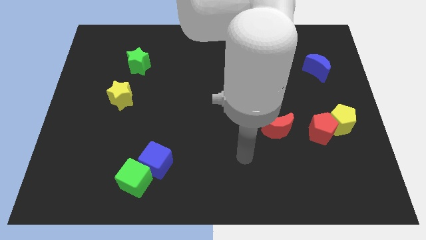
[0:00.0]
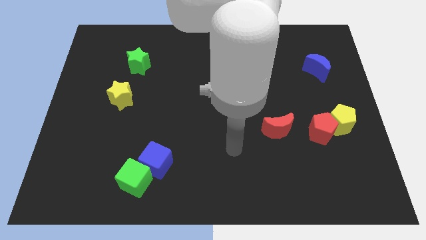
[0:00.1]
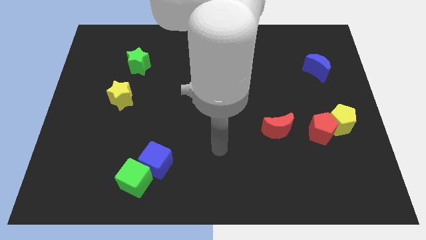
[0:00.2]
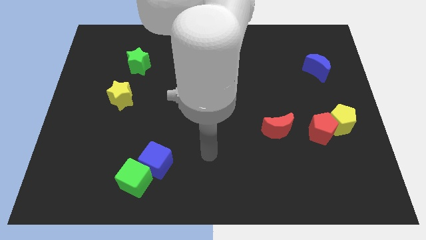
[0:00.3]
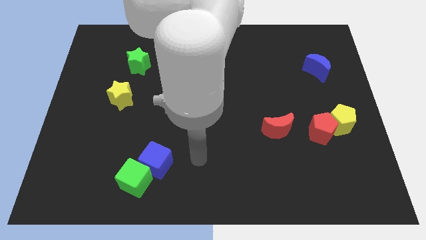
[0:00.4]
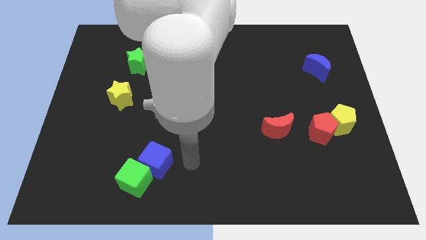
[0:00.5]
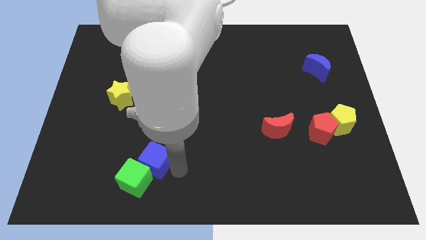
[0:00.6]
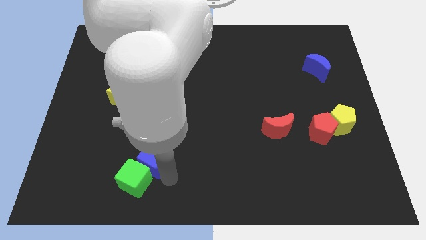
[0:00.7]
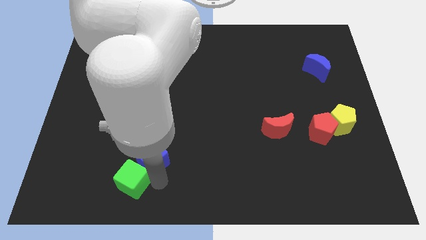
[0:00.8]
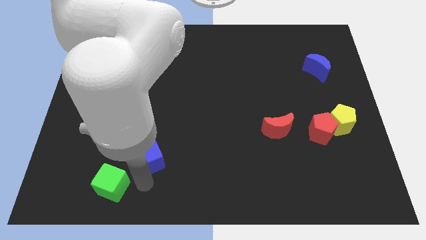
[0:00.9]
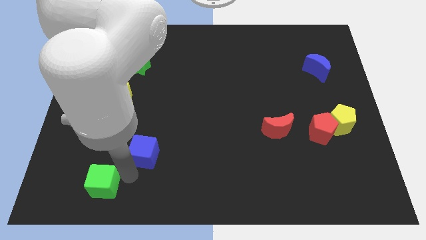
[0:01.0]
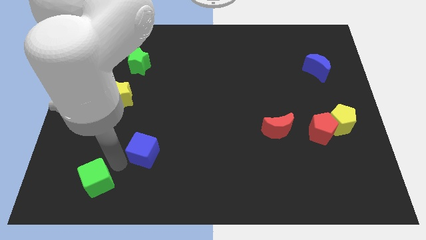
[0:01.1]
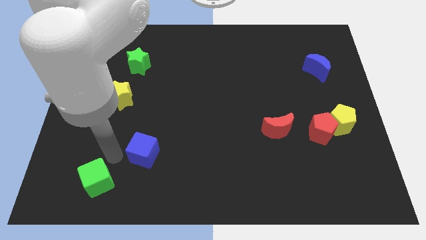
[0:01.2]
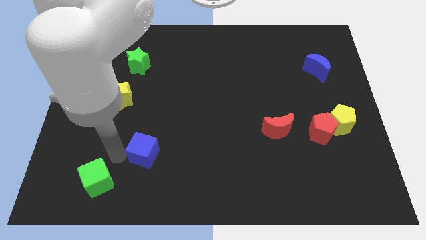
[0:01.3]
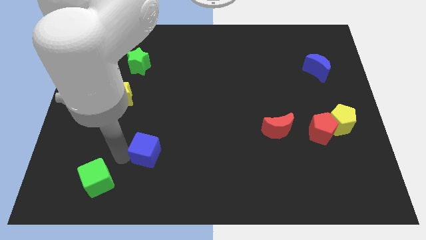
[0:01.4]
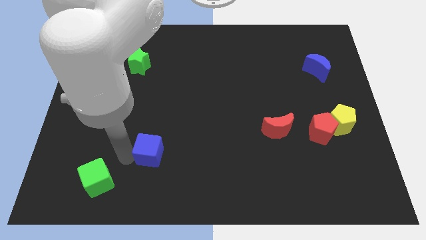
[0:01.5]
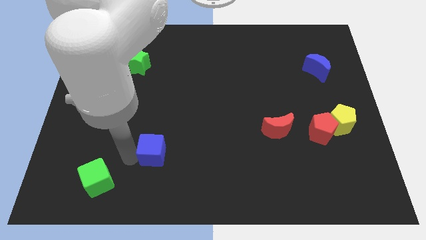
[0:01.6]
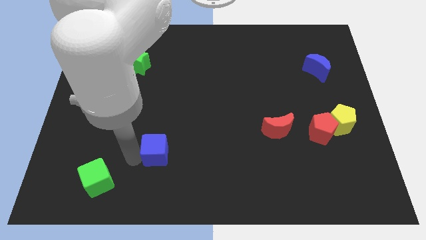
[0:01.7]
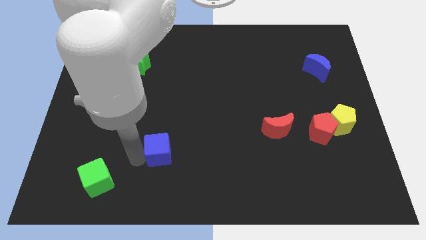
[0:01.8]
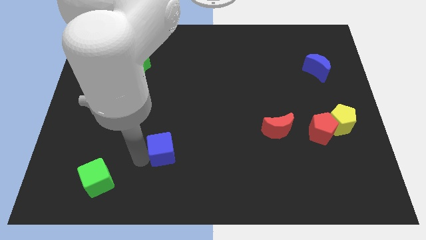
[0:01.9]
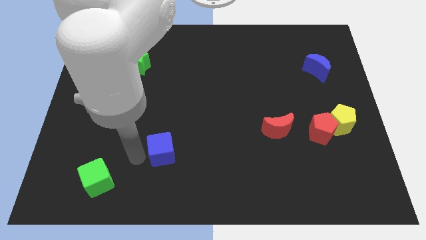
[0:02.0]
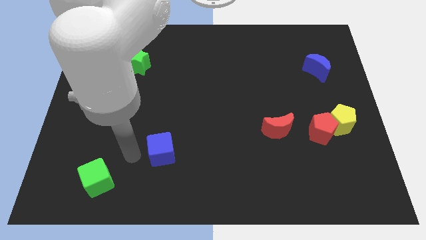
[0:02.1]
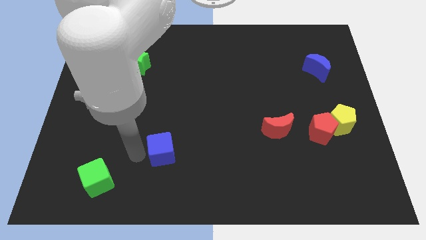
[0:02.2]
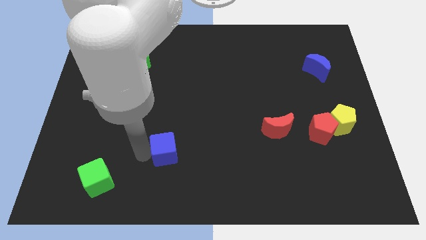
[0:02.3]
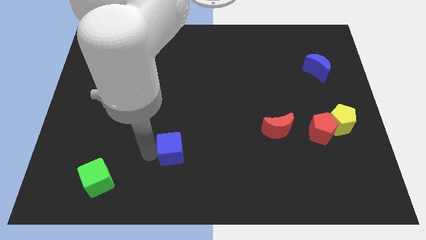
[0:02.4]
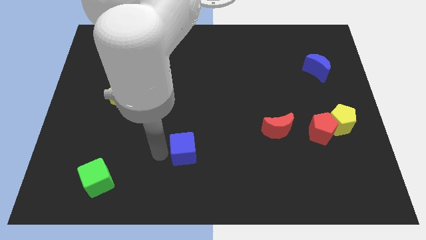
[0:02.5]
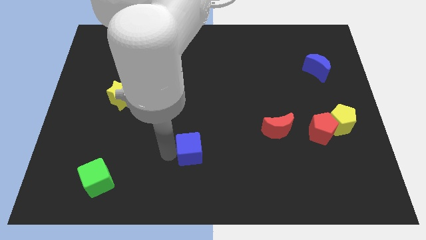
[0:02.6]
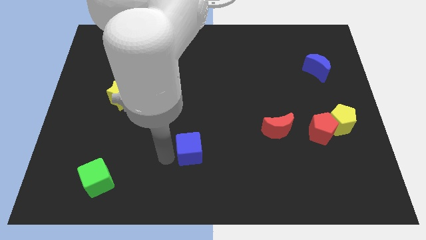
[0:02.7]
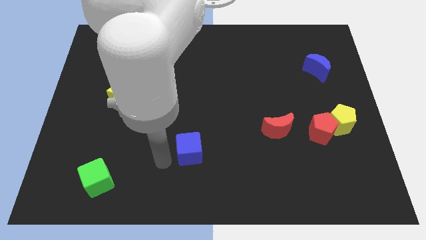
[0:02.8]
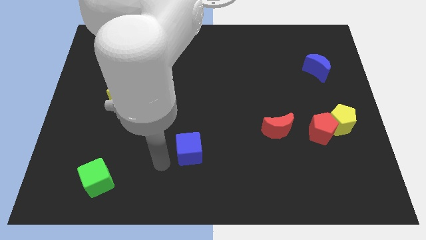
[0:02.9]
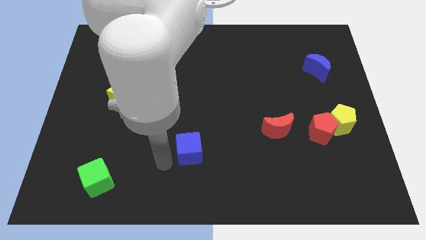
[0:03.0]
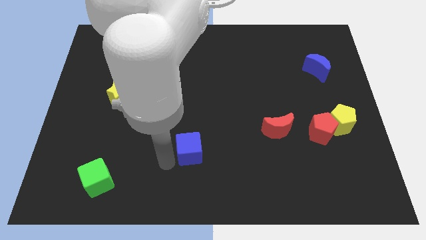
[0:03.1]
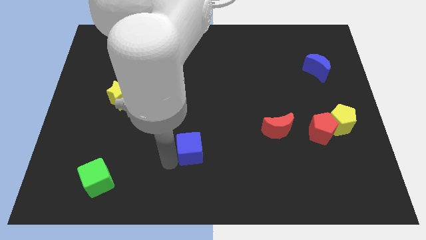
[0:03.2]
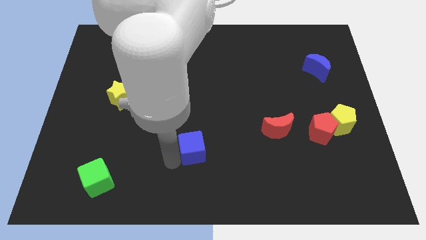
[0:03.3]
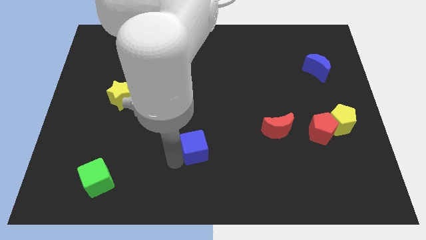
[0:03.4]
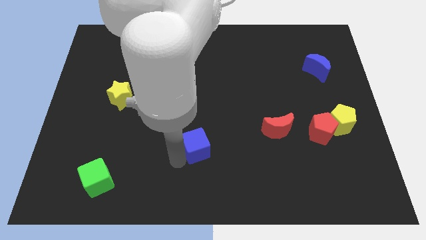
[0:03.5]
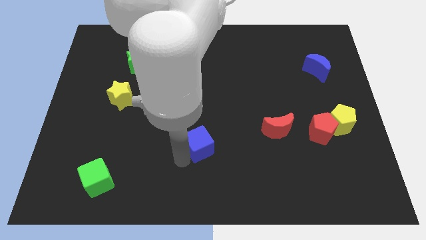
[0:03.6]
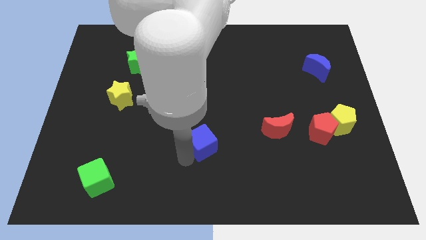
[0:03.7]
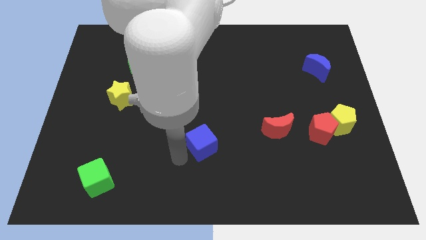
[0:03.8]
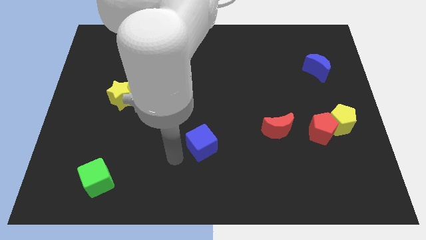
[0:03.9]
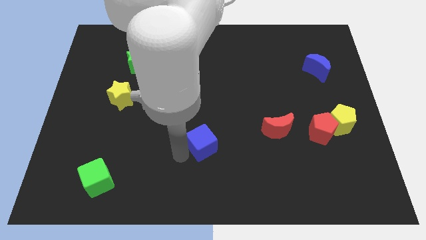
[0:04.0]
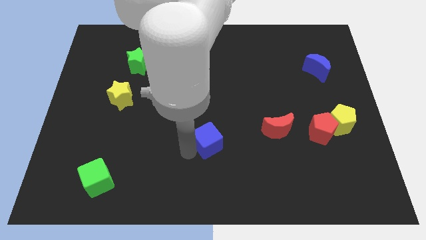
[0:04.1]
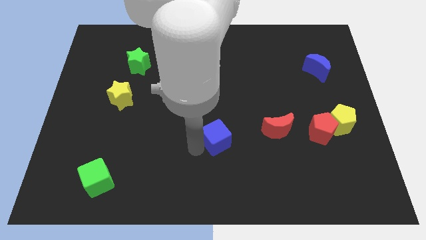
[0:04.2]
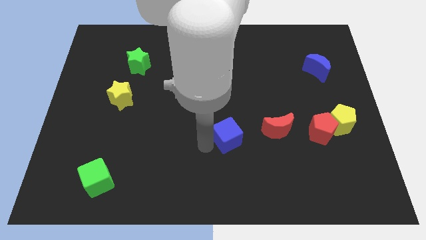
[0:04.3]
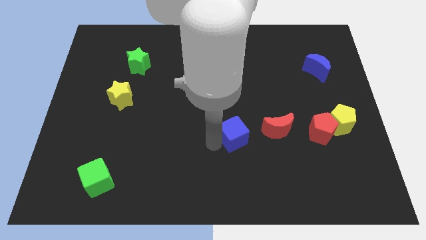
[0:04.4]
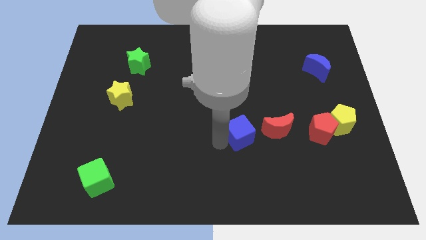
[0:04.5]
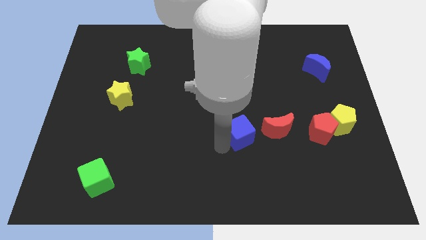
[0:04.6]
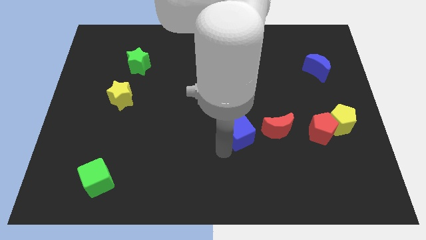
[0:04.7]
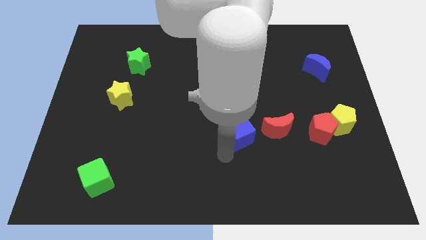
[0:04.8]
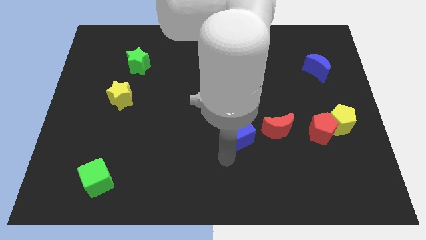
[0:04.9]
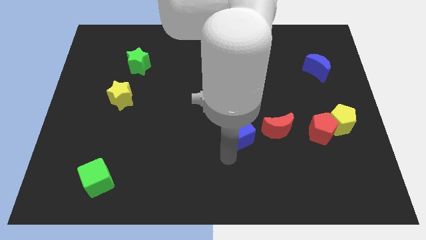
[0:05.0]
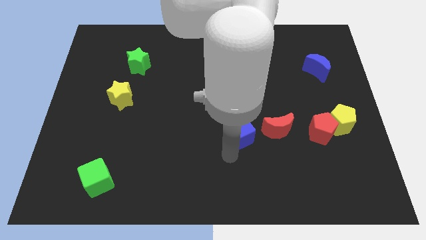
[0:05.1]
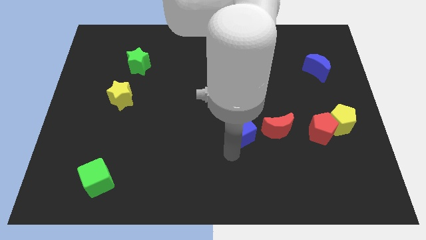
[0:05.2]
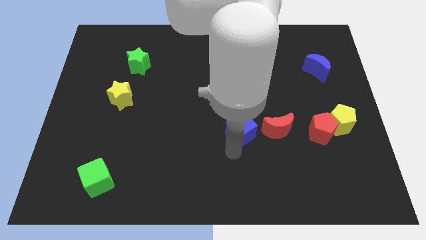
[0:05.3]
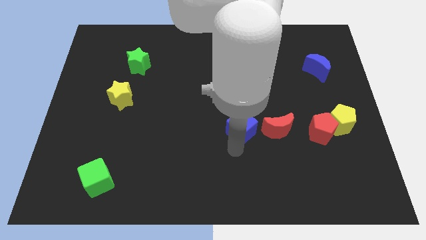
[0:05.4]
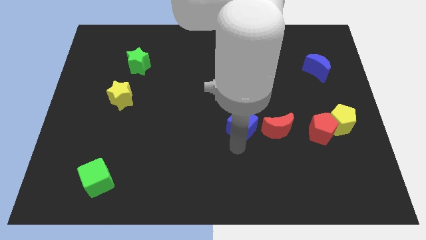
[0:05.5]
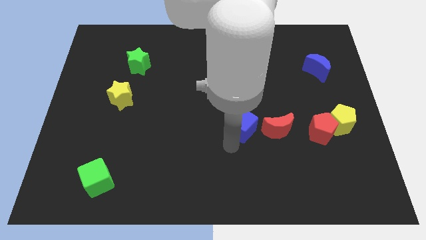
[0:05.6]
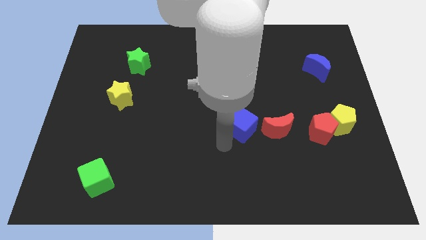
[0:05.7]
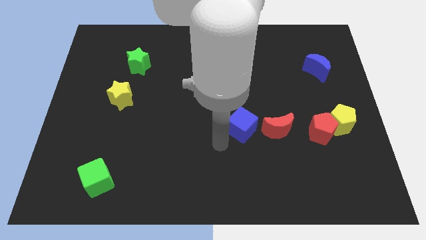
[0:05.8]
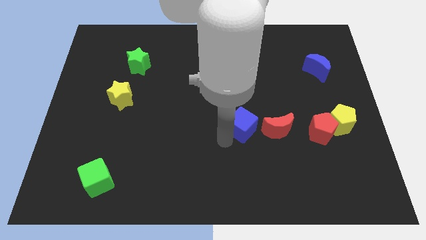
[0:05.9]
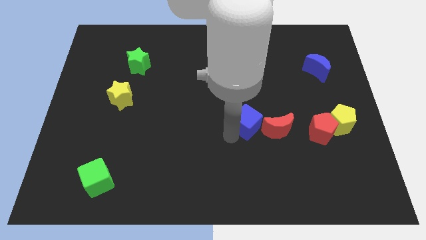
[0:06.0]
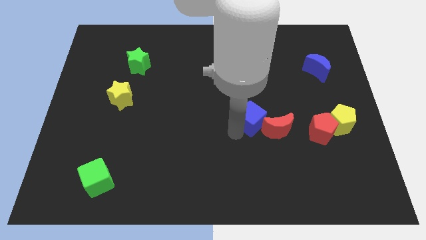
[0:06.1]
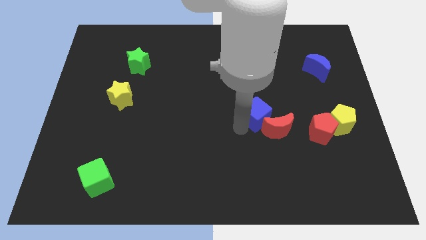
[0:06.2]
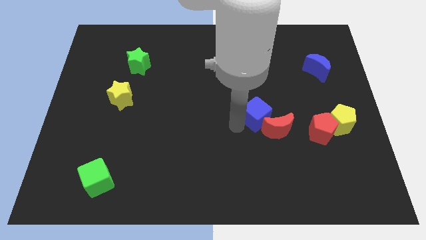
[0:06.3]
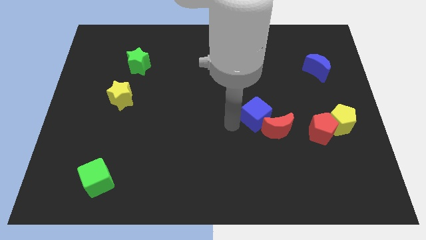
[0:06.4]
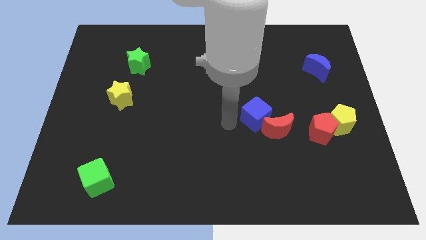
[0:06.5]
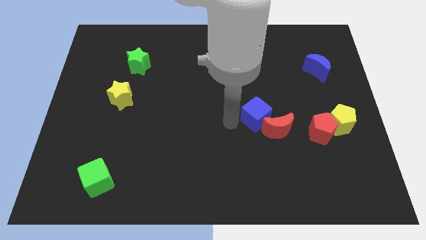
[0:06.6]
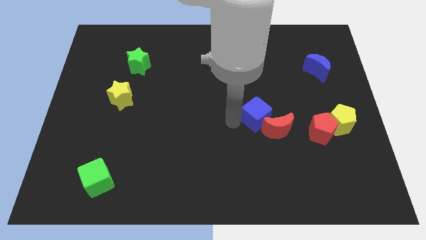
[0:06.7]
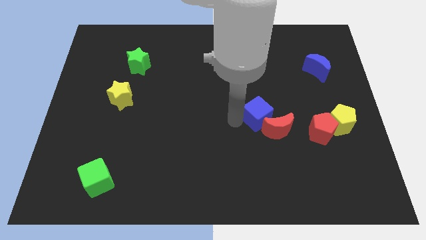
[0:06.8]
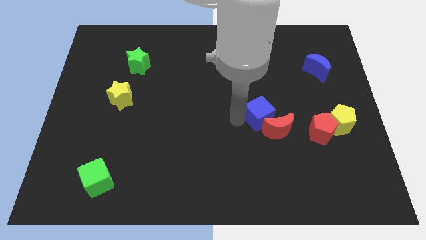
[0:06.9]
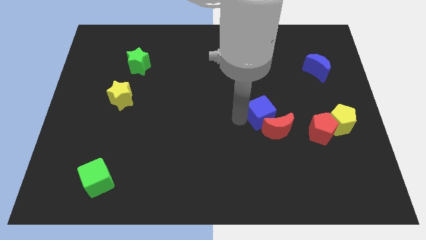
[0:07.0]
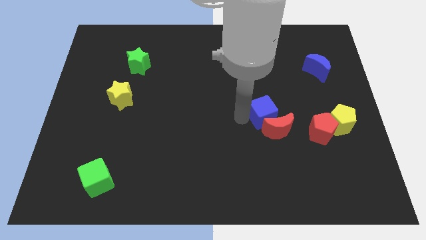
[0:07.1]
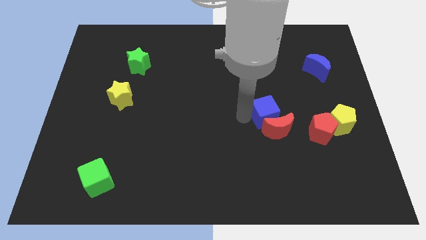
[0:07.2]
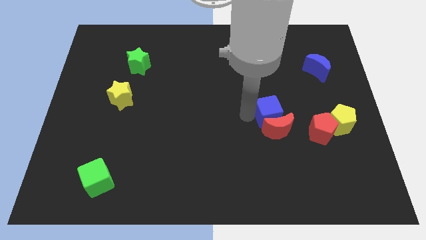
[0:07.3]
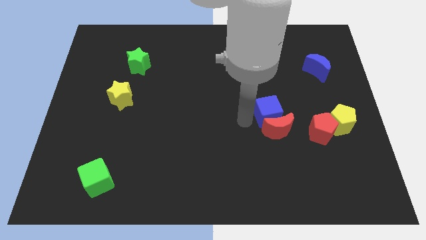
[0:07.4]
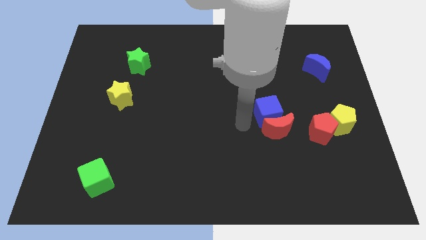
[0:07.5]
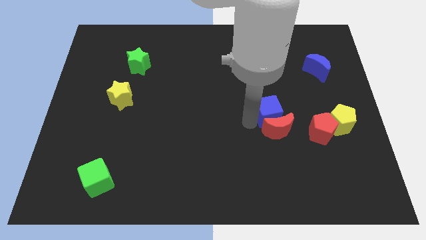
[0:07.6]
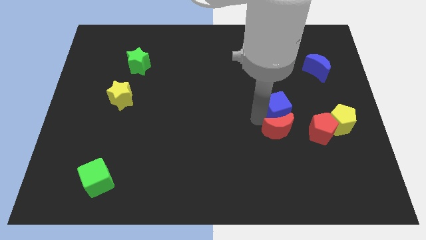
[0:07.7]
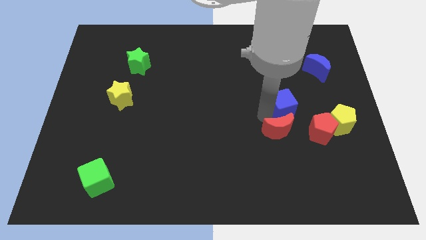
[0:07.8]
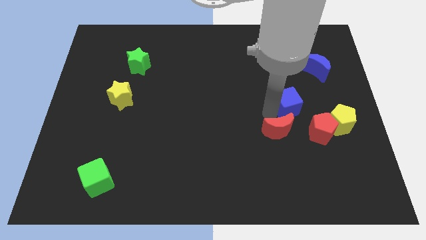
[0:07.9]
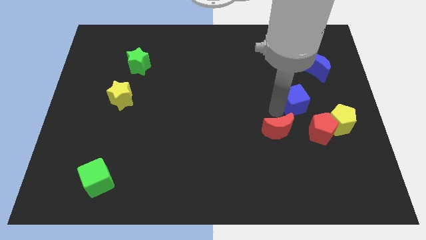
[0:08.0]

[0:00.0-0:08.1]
put the blue cube to the top of the red pentagon
